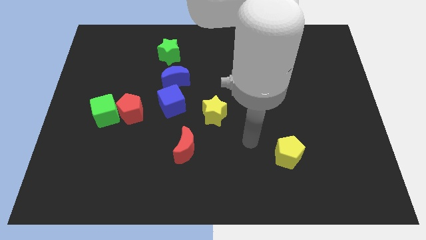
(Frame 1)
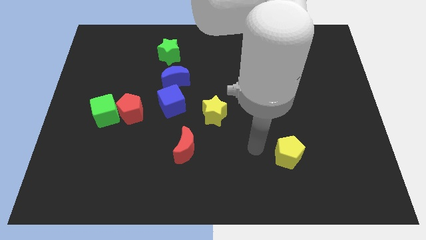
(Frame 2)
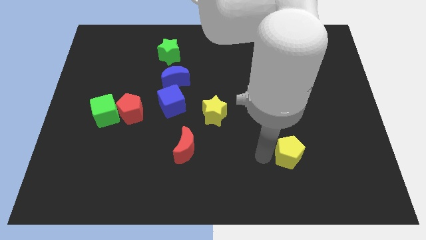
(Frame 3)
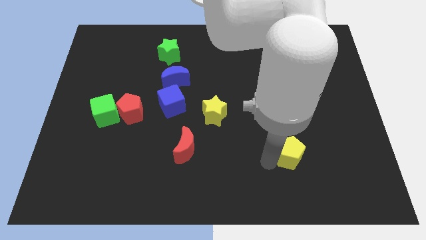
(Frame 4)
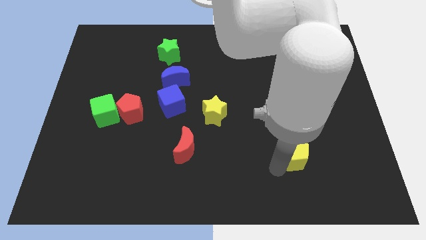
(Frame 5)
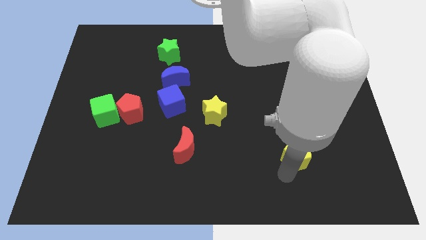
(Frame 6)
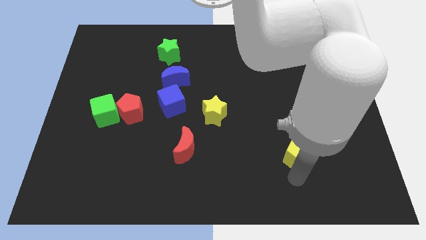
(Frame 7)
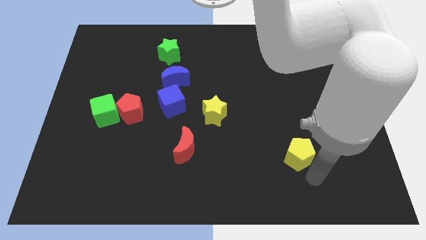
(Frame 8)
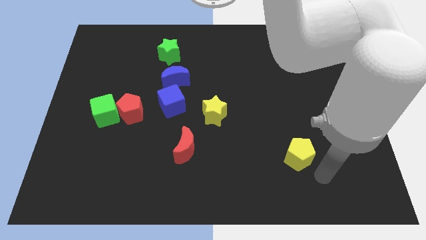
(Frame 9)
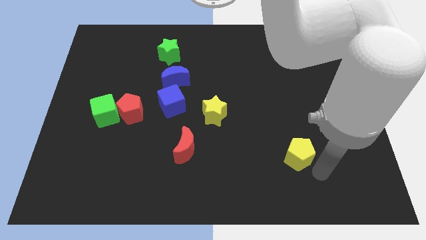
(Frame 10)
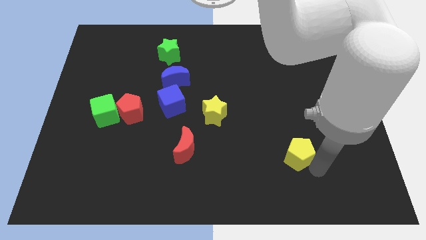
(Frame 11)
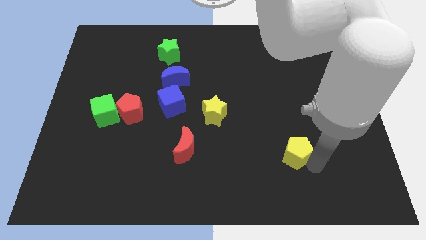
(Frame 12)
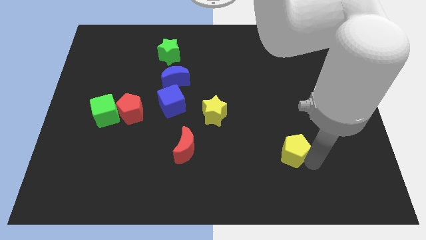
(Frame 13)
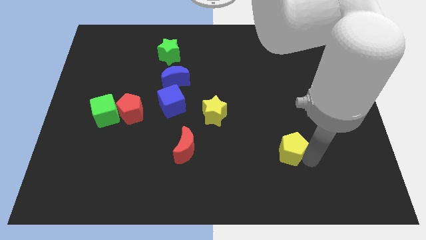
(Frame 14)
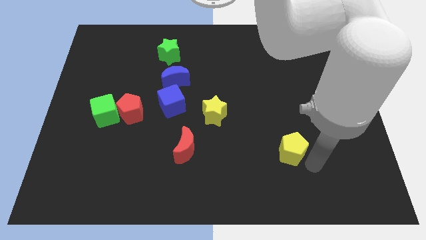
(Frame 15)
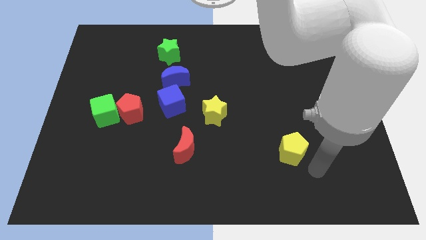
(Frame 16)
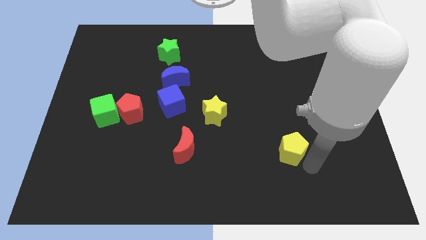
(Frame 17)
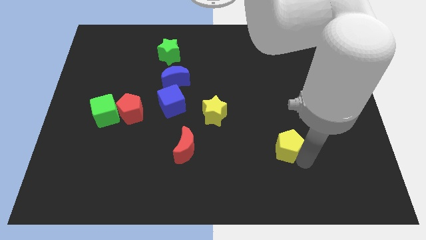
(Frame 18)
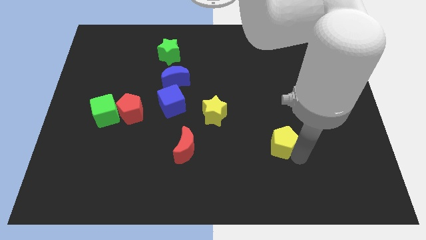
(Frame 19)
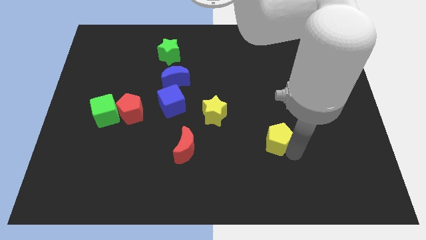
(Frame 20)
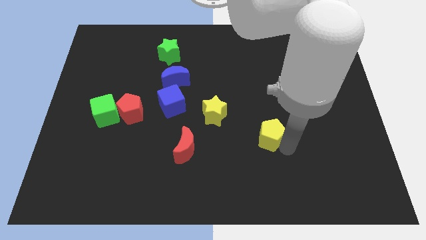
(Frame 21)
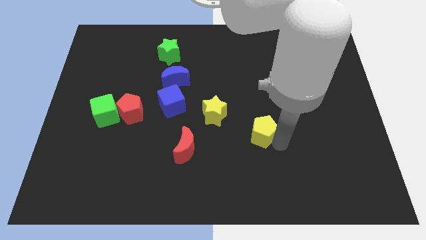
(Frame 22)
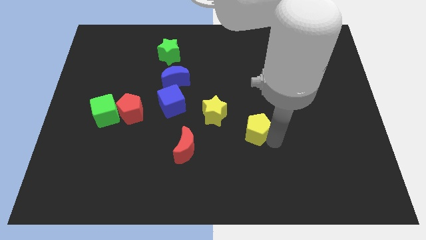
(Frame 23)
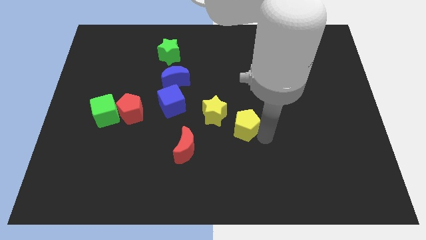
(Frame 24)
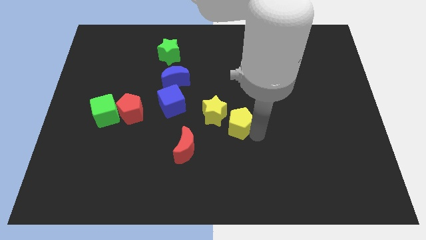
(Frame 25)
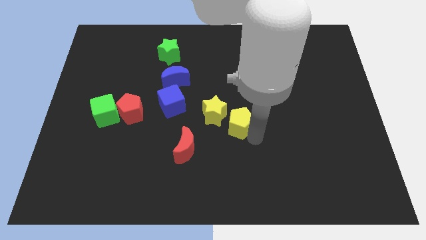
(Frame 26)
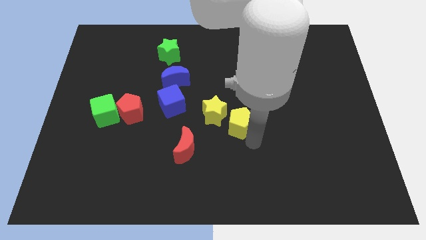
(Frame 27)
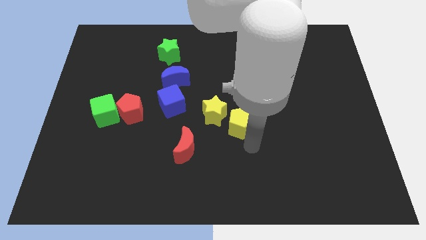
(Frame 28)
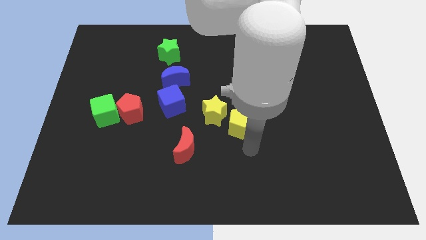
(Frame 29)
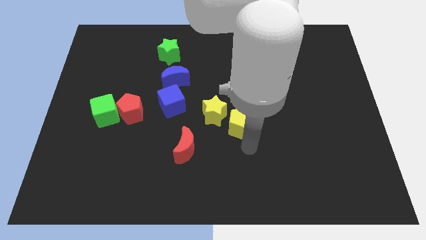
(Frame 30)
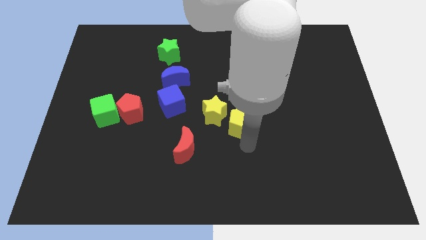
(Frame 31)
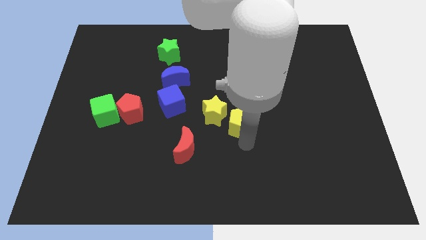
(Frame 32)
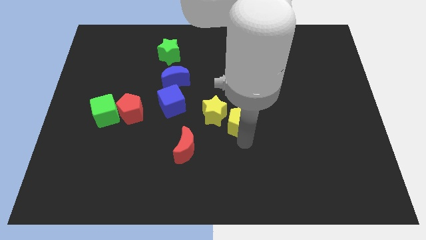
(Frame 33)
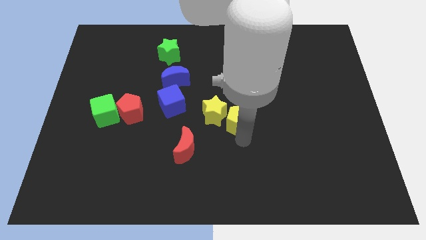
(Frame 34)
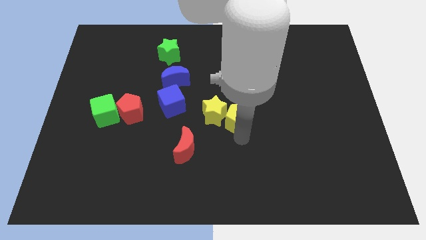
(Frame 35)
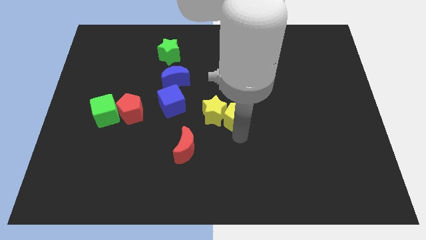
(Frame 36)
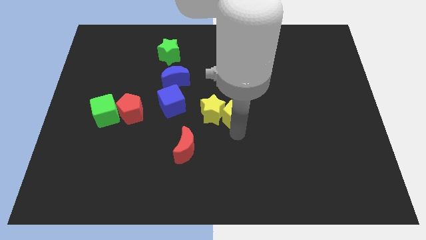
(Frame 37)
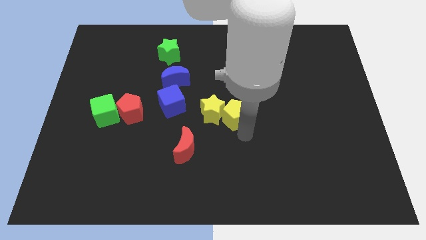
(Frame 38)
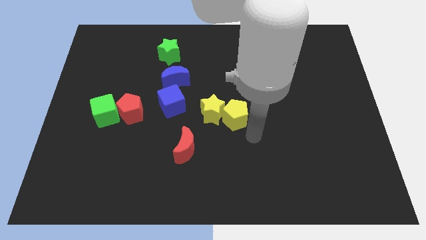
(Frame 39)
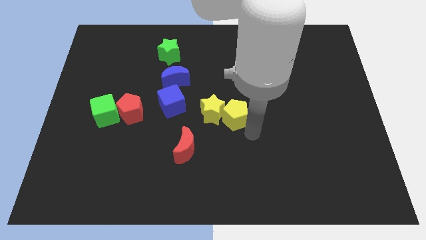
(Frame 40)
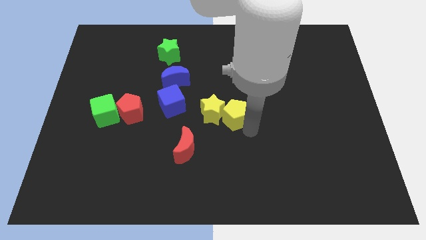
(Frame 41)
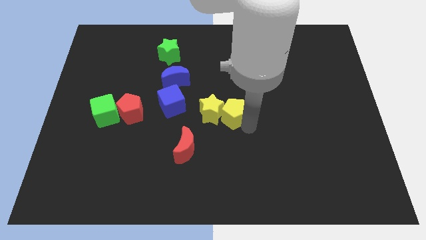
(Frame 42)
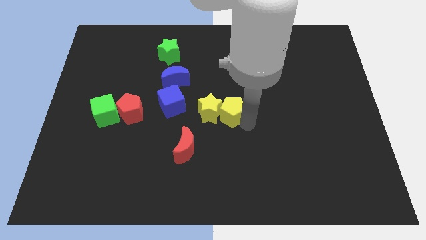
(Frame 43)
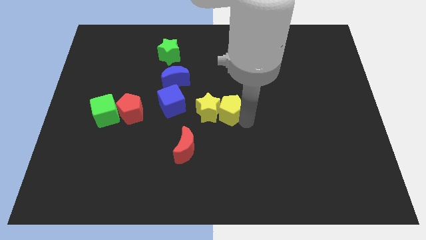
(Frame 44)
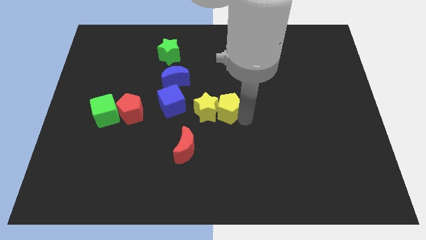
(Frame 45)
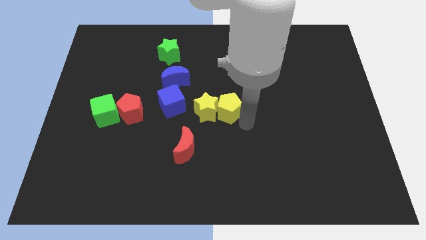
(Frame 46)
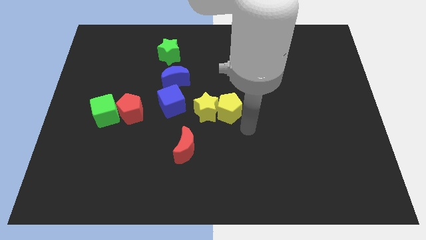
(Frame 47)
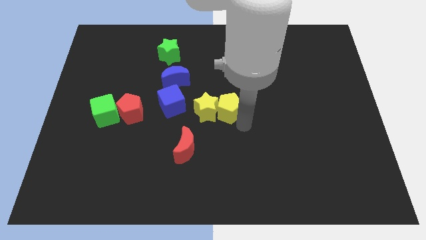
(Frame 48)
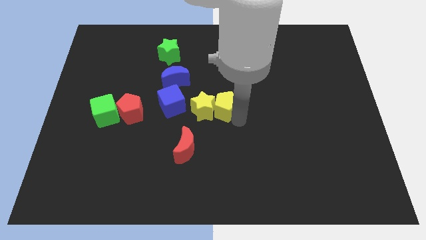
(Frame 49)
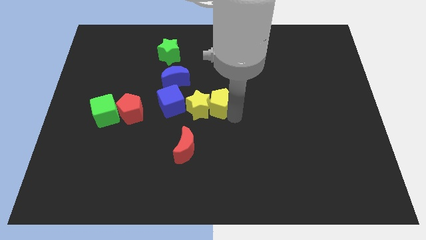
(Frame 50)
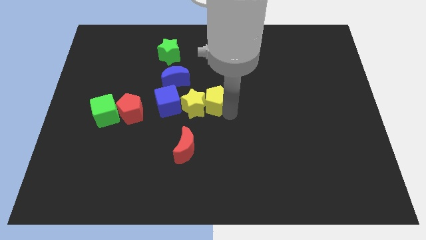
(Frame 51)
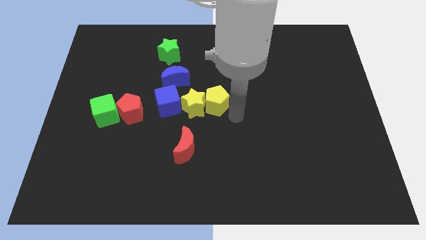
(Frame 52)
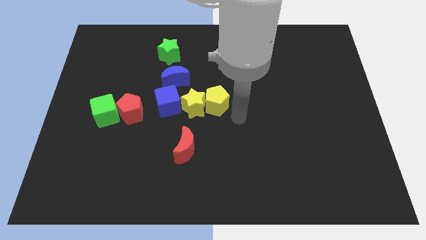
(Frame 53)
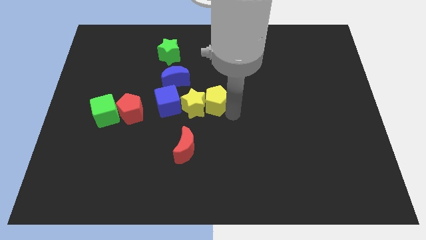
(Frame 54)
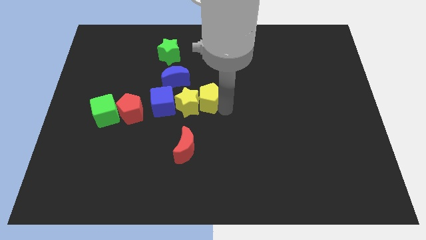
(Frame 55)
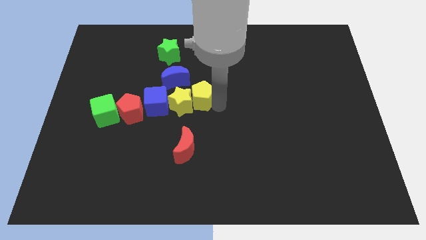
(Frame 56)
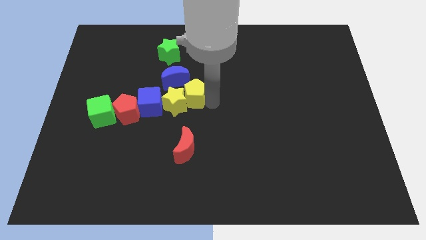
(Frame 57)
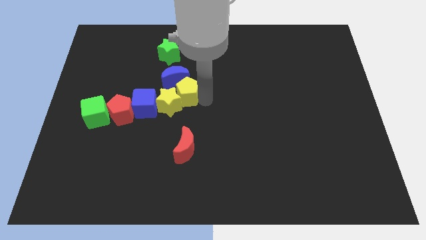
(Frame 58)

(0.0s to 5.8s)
slide the yellow pentagon to the top right side of the blue cube
